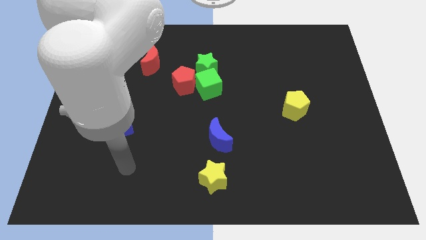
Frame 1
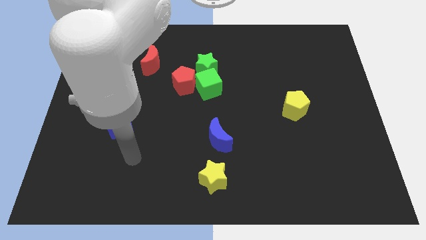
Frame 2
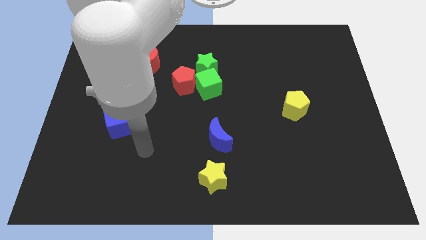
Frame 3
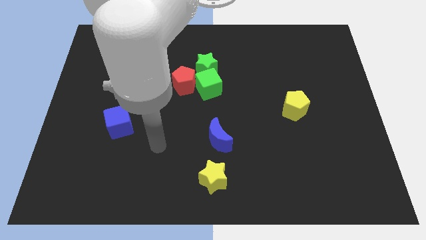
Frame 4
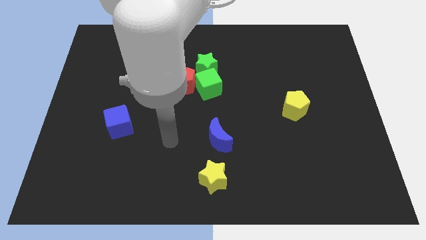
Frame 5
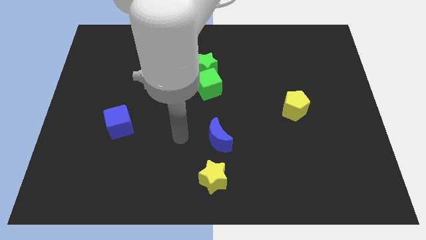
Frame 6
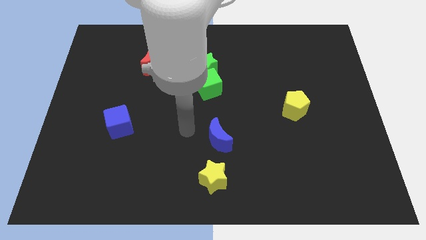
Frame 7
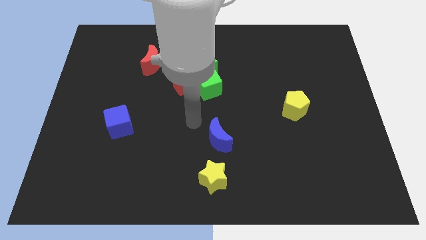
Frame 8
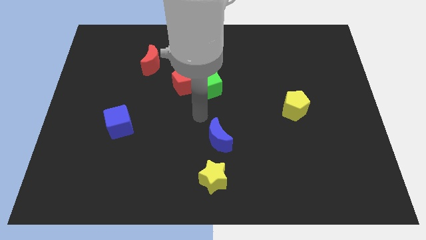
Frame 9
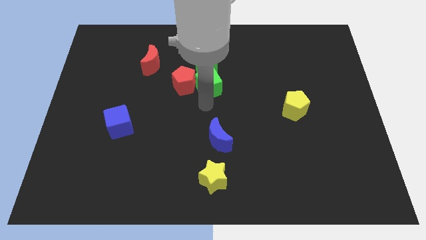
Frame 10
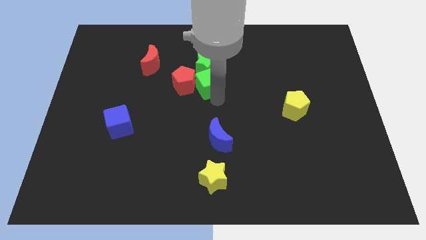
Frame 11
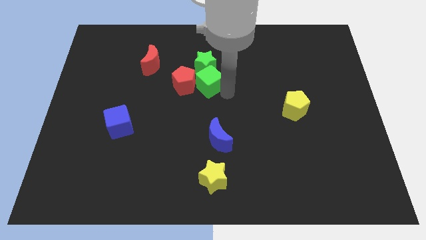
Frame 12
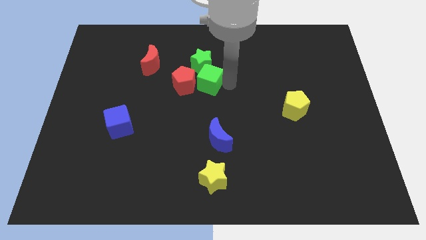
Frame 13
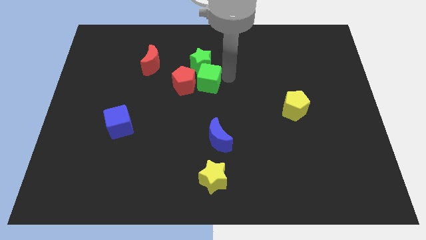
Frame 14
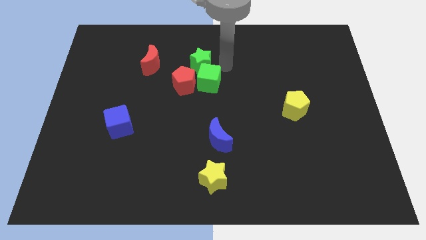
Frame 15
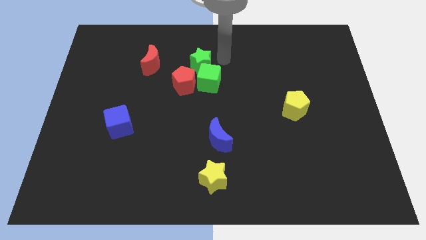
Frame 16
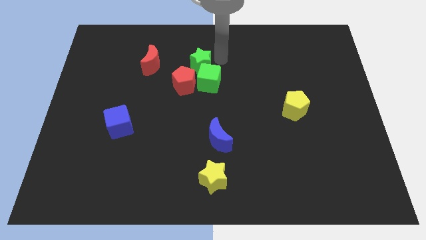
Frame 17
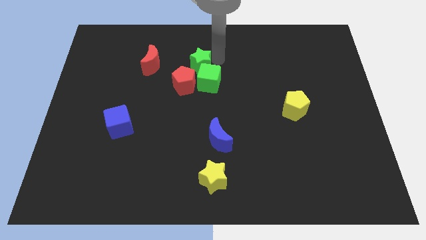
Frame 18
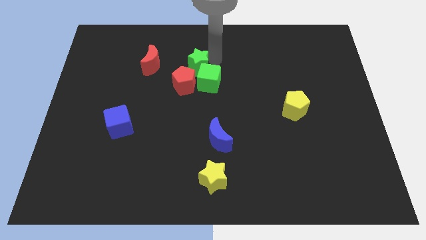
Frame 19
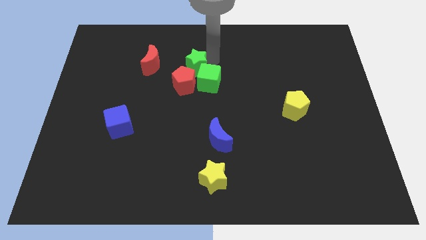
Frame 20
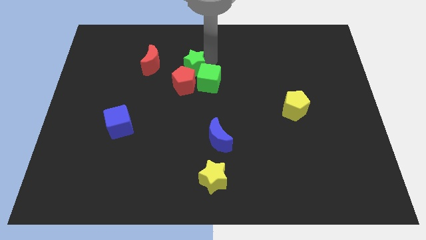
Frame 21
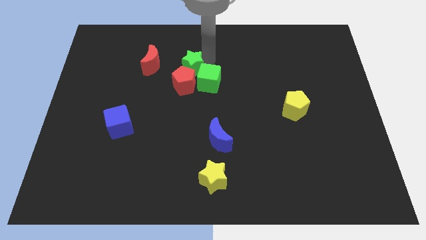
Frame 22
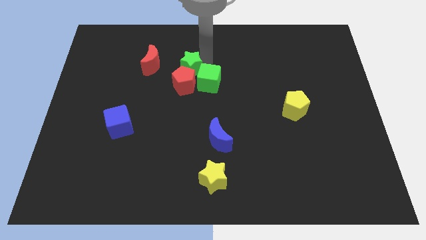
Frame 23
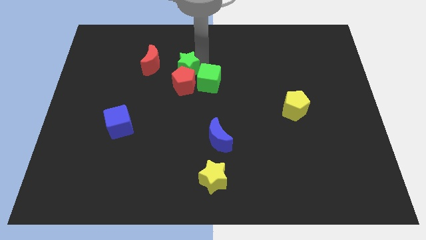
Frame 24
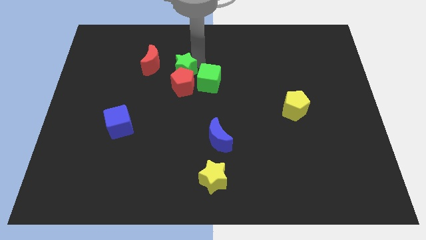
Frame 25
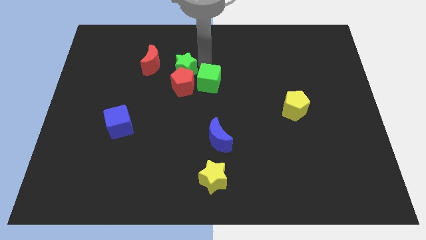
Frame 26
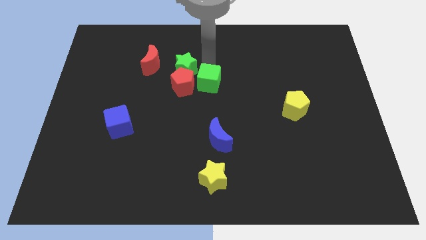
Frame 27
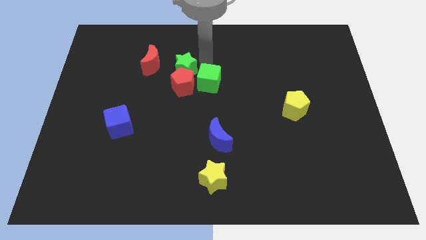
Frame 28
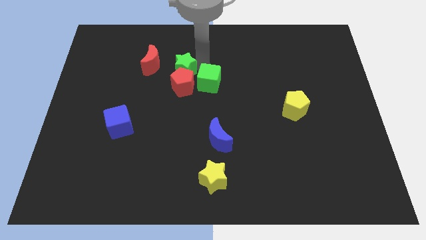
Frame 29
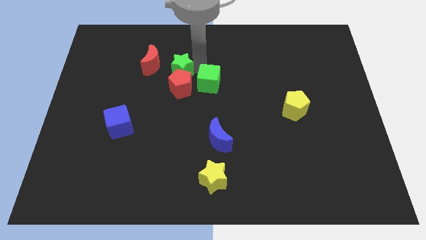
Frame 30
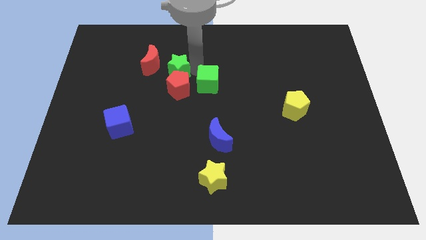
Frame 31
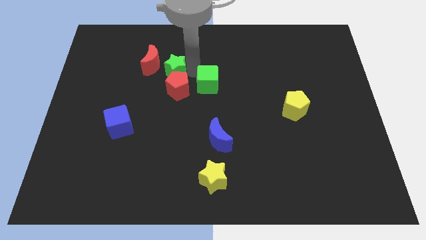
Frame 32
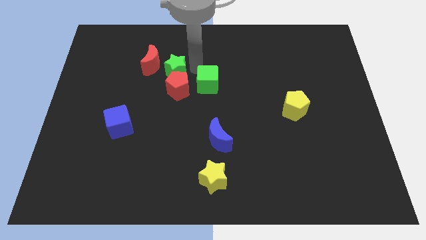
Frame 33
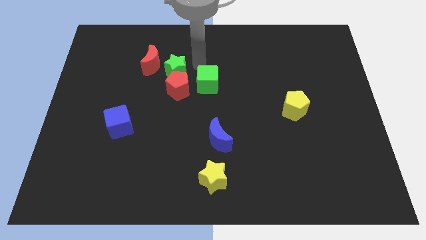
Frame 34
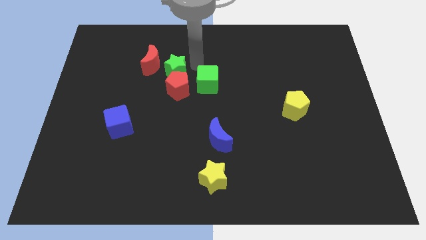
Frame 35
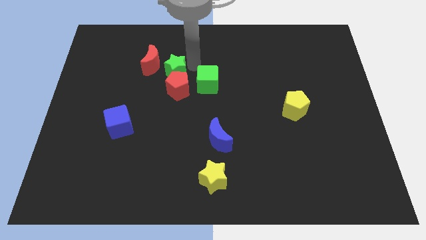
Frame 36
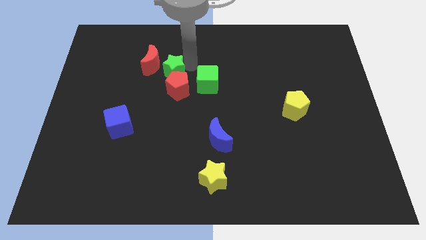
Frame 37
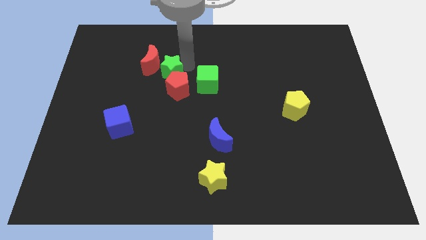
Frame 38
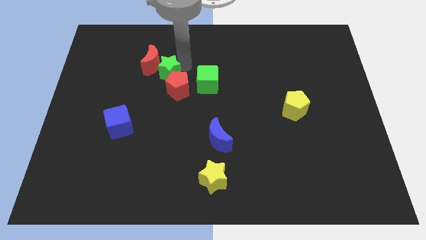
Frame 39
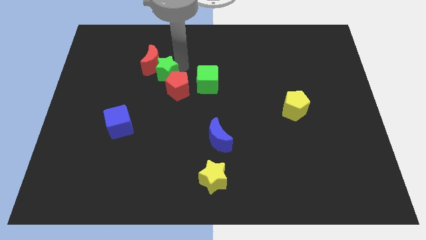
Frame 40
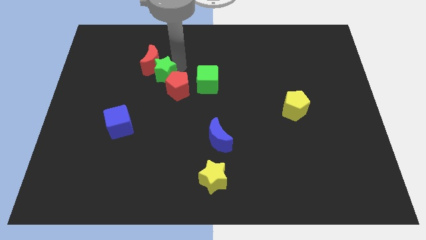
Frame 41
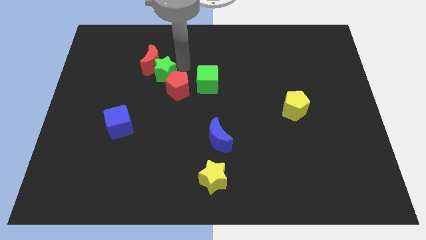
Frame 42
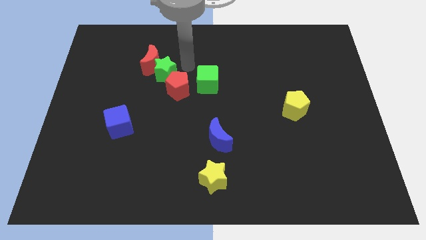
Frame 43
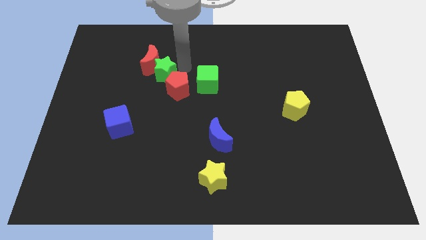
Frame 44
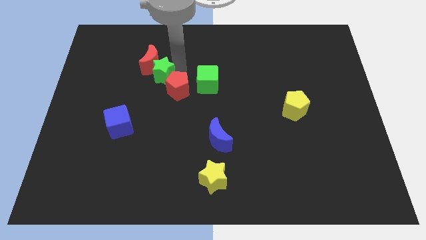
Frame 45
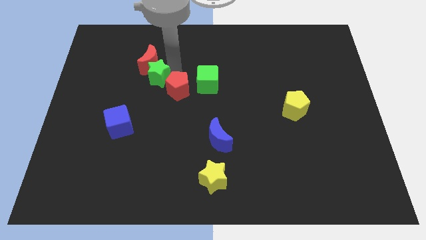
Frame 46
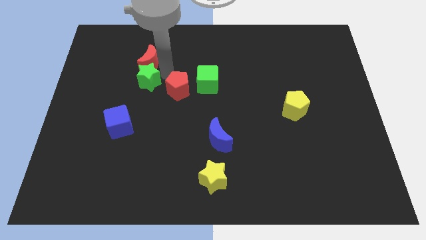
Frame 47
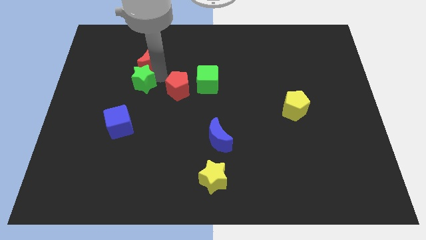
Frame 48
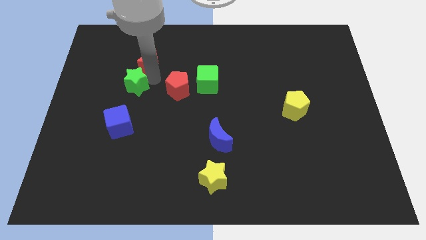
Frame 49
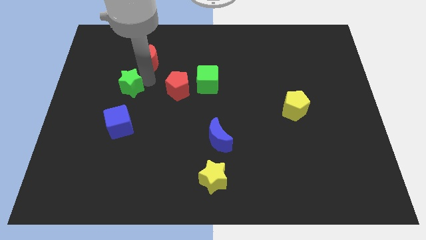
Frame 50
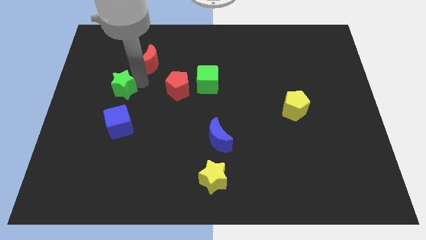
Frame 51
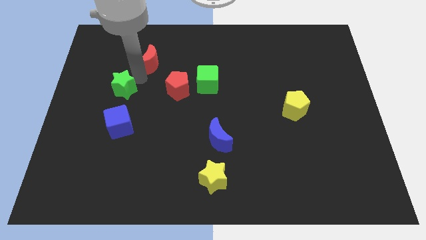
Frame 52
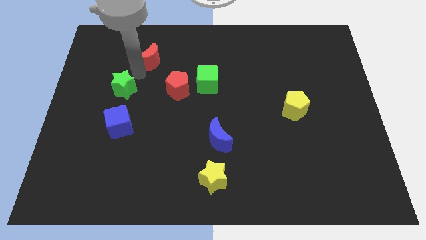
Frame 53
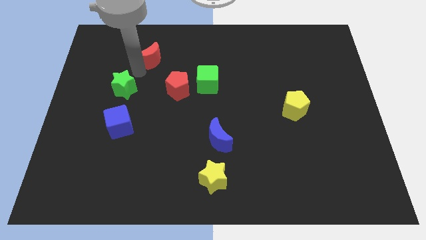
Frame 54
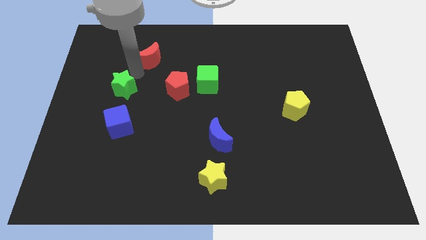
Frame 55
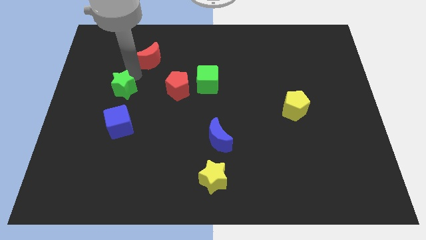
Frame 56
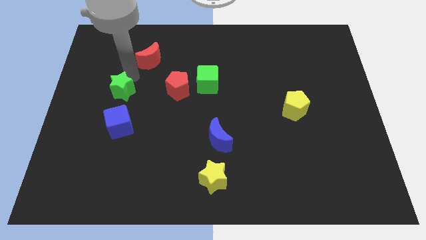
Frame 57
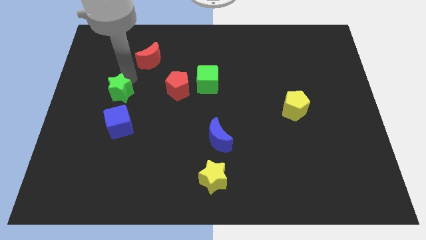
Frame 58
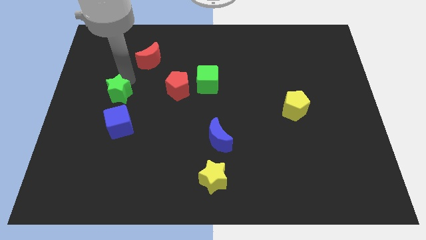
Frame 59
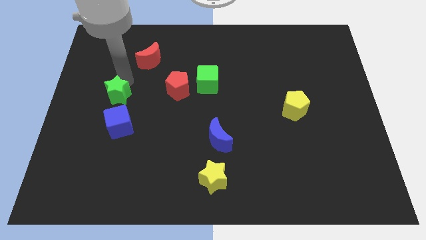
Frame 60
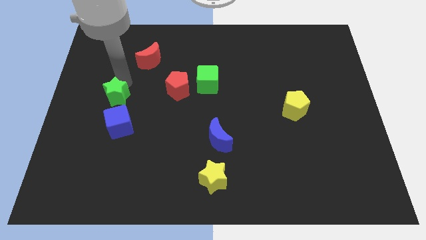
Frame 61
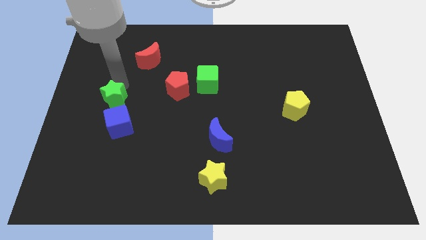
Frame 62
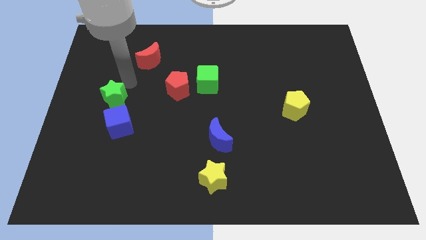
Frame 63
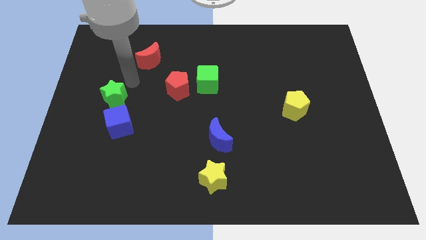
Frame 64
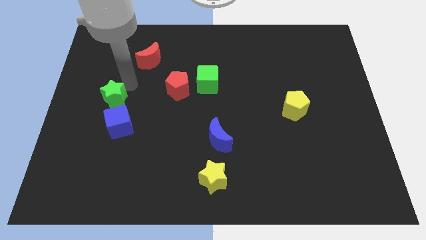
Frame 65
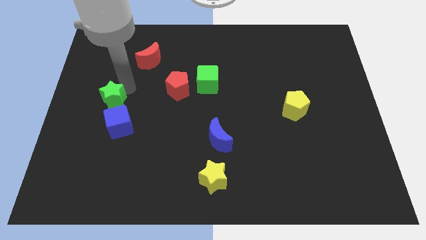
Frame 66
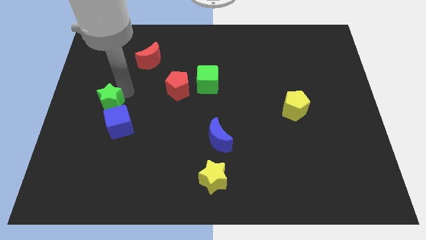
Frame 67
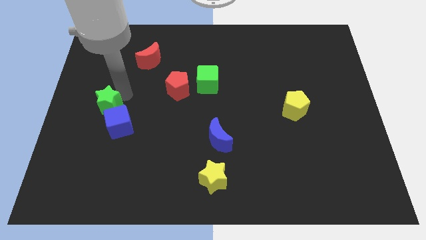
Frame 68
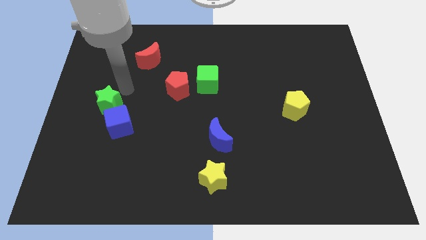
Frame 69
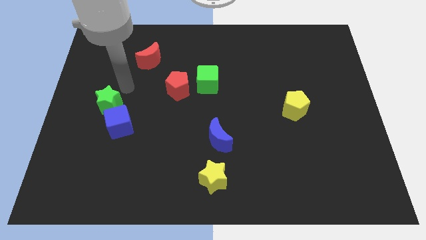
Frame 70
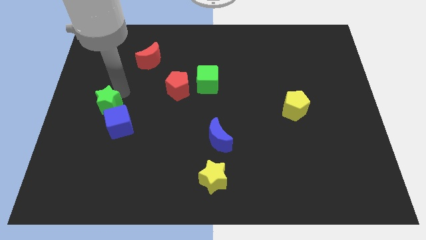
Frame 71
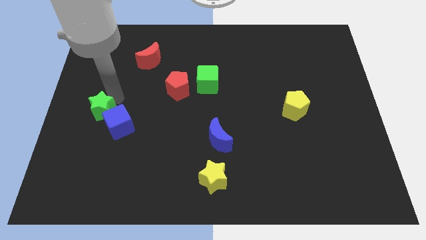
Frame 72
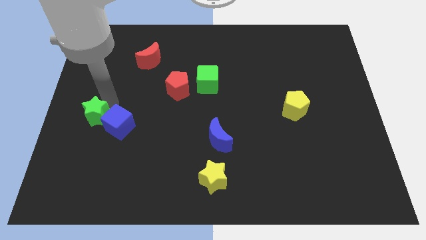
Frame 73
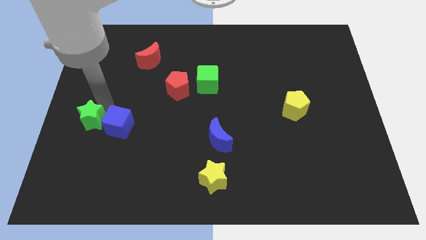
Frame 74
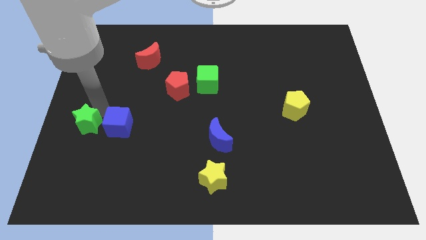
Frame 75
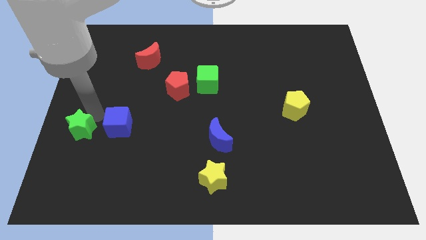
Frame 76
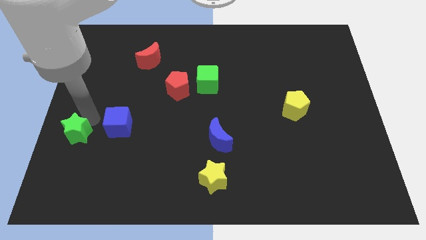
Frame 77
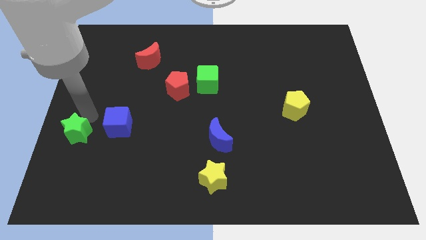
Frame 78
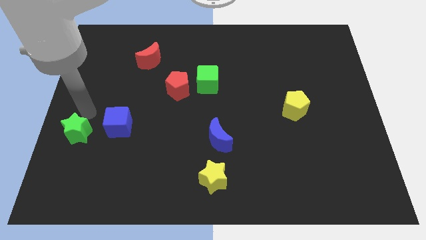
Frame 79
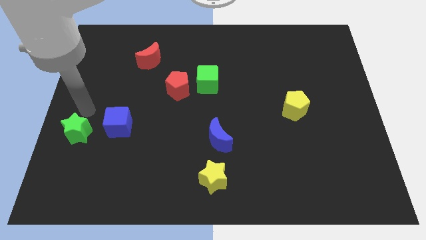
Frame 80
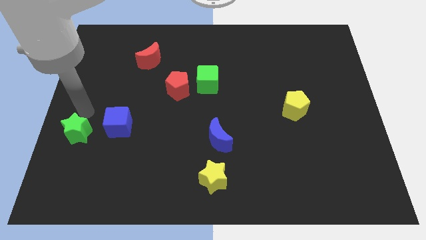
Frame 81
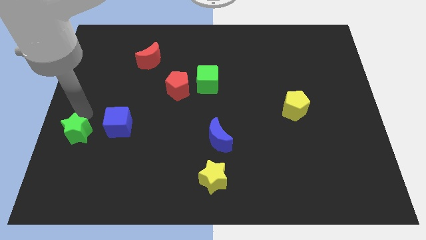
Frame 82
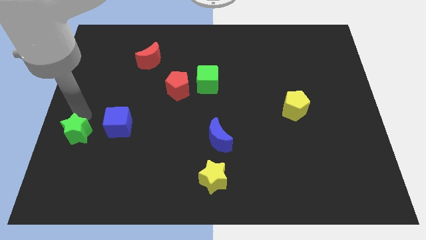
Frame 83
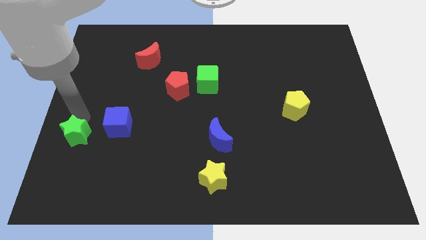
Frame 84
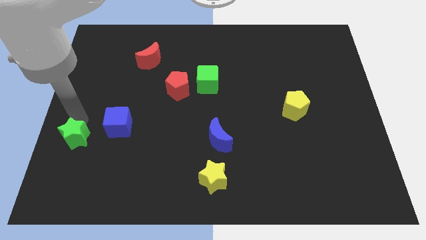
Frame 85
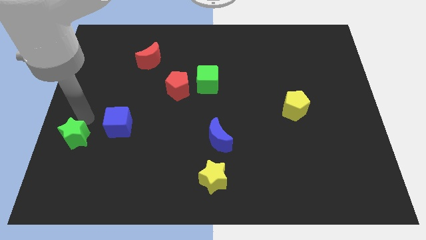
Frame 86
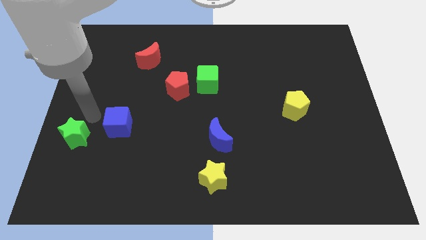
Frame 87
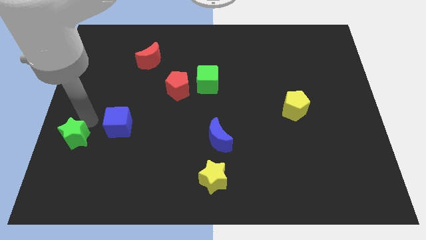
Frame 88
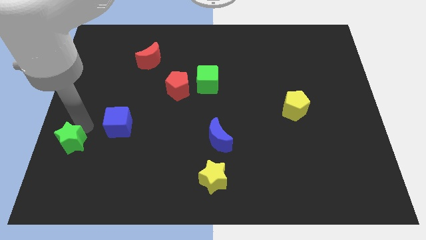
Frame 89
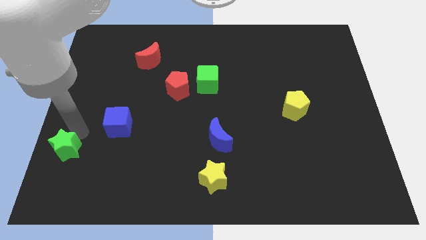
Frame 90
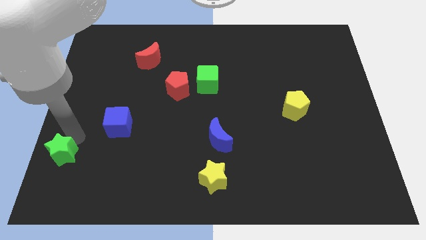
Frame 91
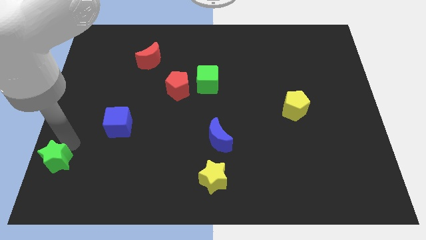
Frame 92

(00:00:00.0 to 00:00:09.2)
slide the green star to the bottom left corner
